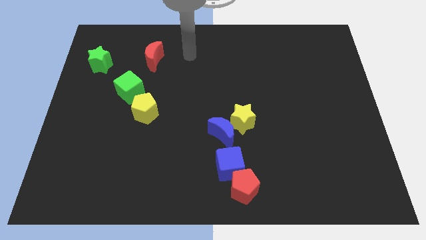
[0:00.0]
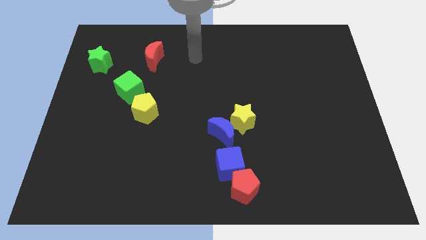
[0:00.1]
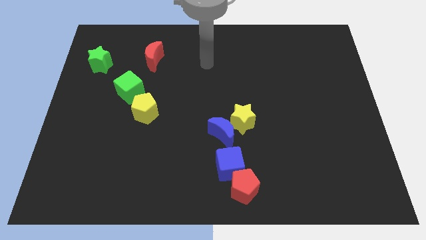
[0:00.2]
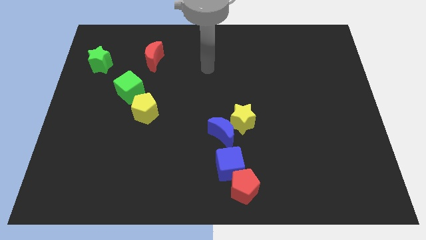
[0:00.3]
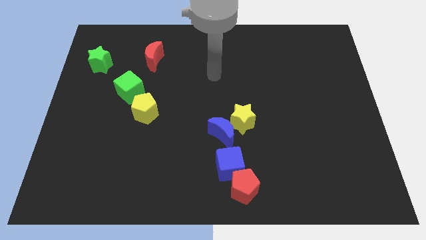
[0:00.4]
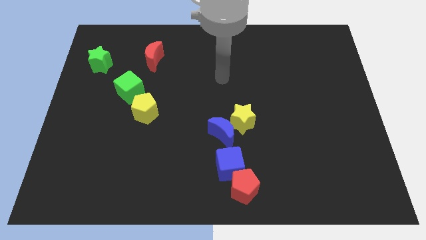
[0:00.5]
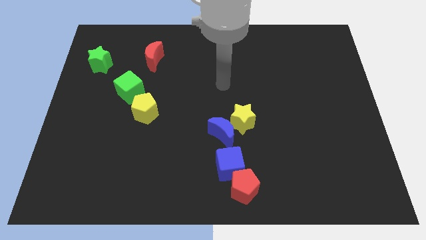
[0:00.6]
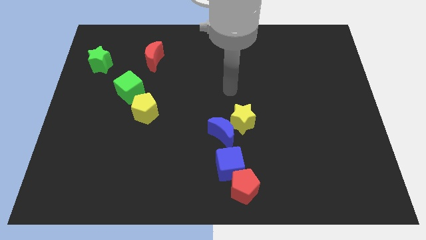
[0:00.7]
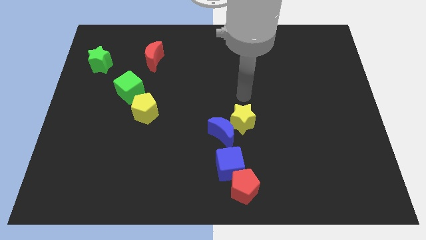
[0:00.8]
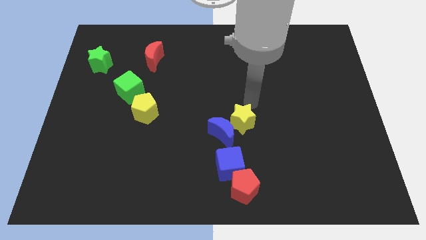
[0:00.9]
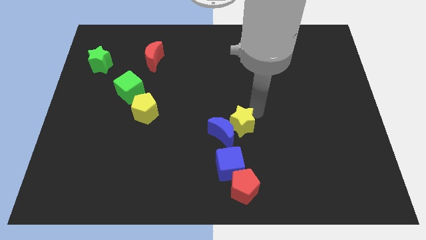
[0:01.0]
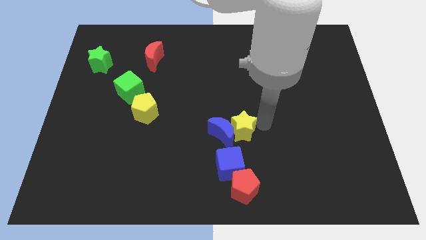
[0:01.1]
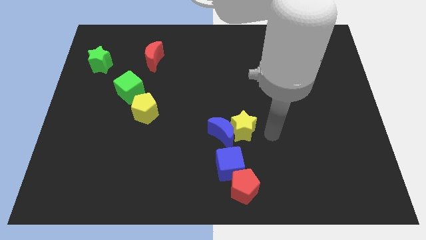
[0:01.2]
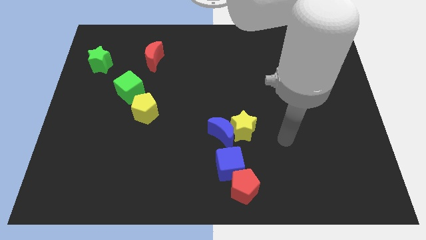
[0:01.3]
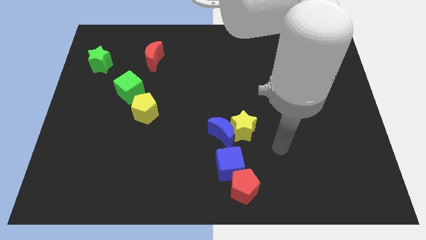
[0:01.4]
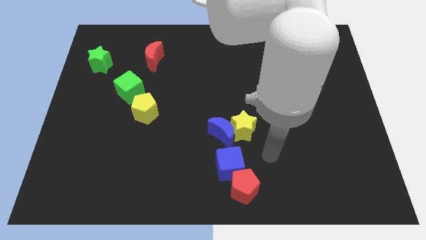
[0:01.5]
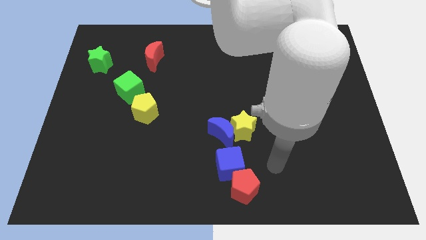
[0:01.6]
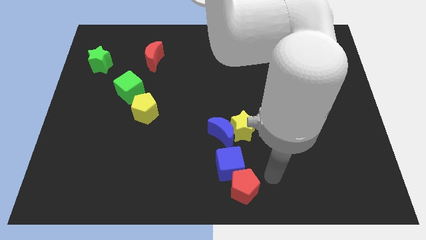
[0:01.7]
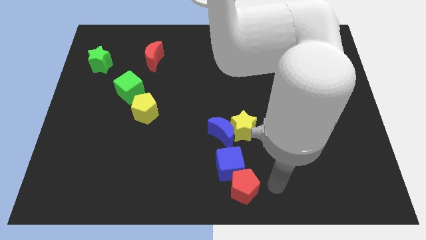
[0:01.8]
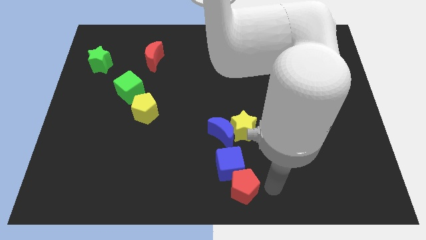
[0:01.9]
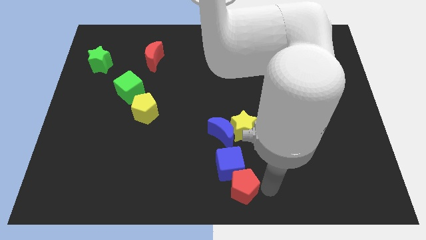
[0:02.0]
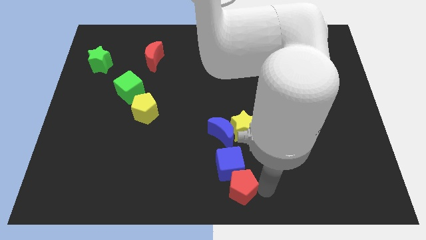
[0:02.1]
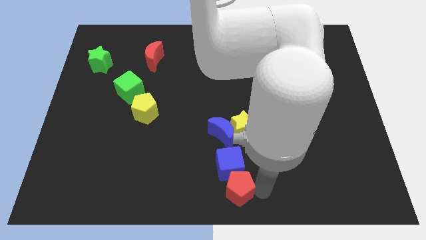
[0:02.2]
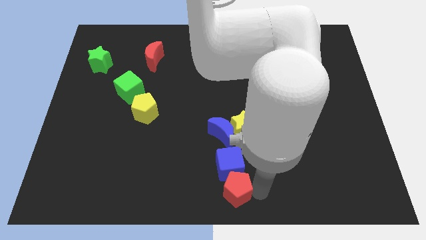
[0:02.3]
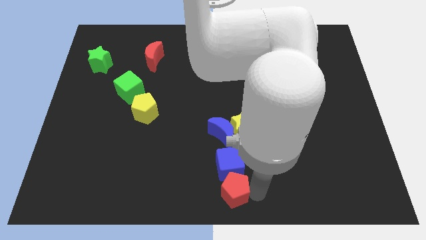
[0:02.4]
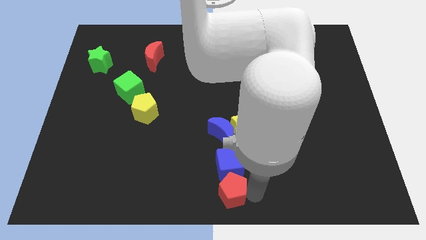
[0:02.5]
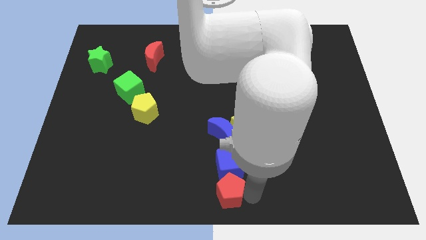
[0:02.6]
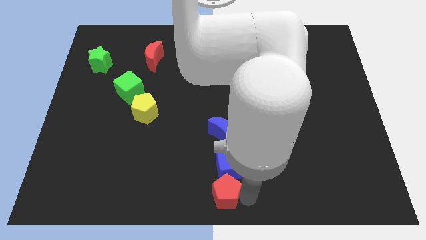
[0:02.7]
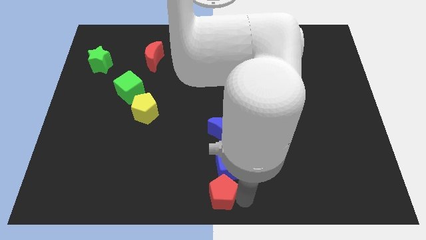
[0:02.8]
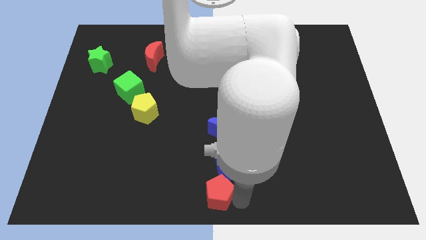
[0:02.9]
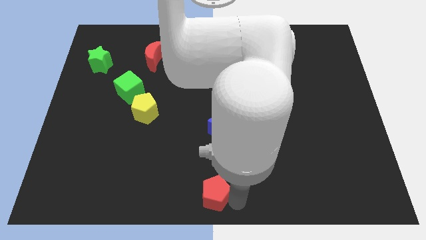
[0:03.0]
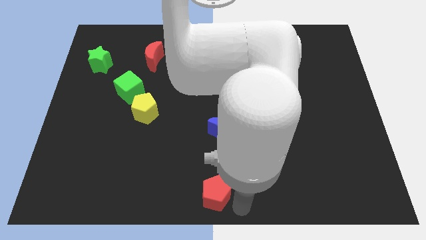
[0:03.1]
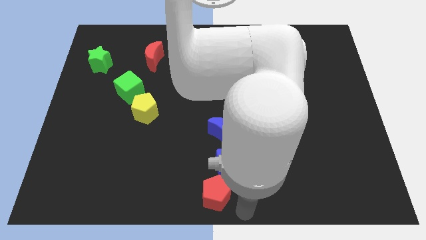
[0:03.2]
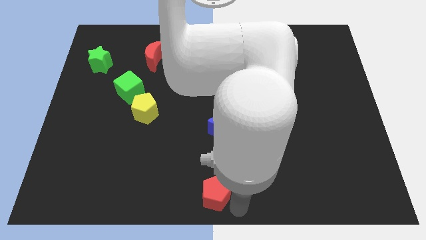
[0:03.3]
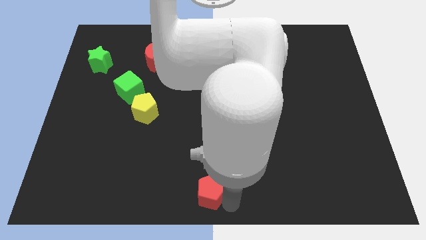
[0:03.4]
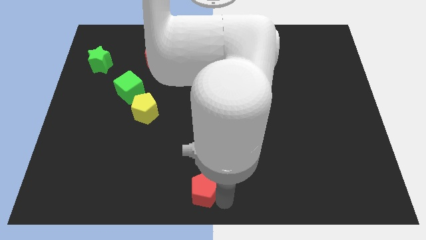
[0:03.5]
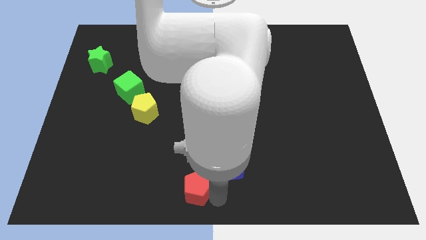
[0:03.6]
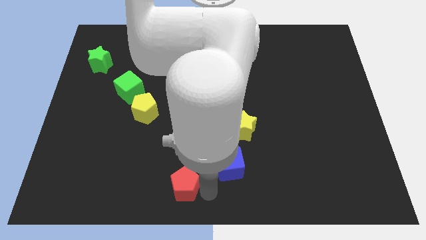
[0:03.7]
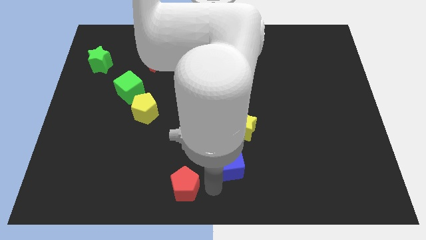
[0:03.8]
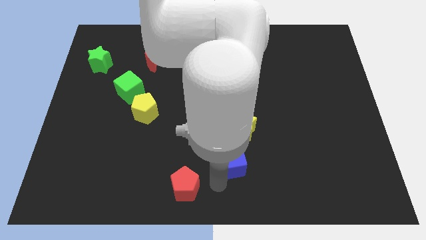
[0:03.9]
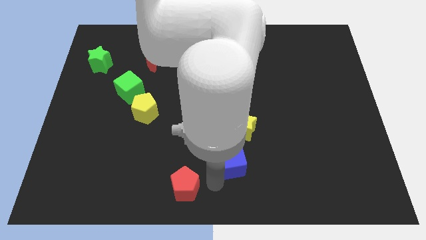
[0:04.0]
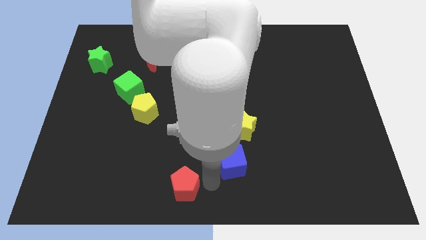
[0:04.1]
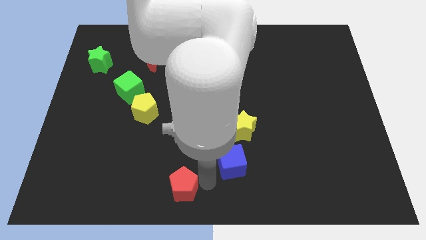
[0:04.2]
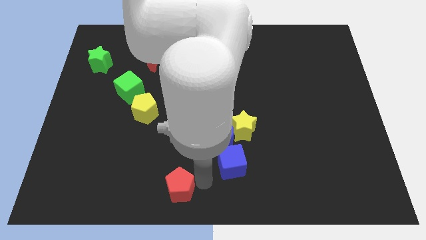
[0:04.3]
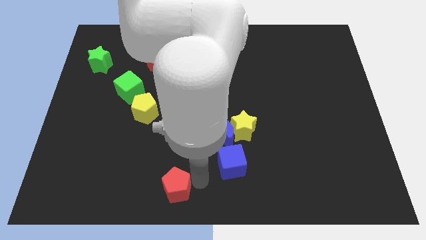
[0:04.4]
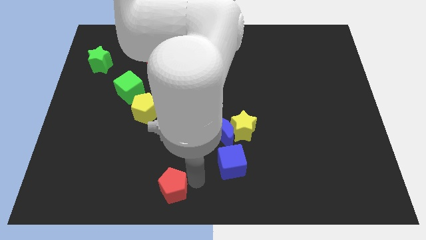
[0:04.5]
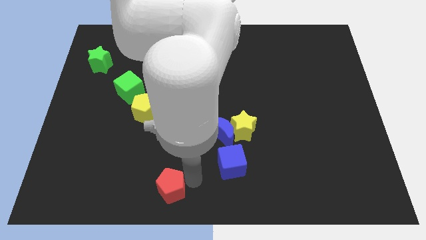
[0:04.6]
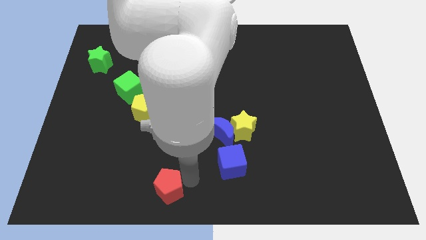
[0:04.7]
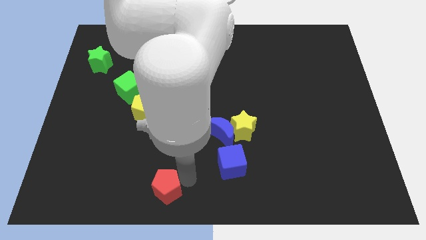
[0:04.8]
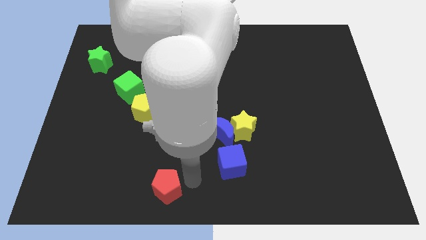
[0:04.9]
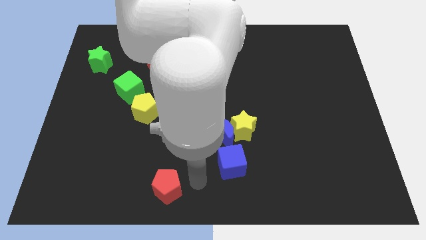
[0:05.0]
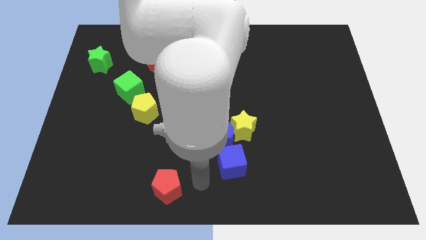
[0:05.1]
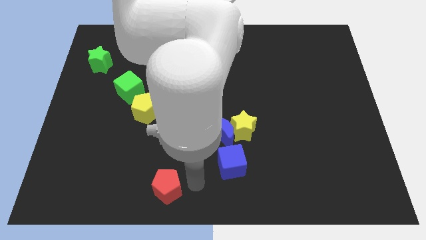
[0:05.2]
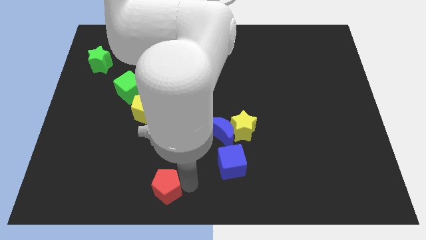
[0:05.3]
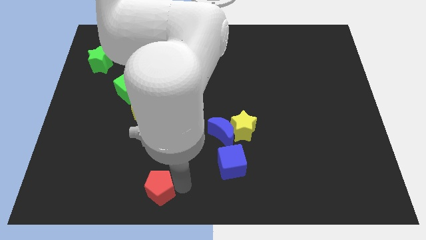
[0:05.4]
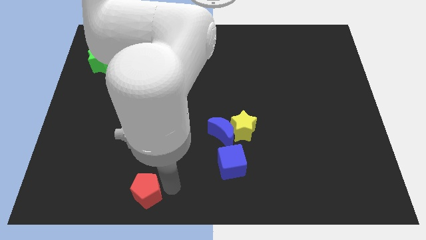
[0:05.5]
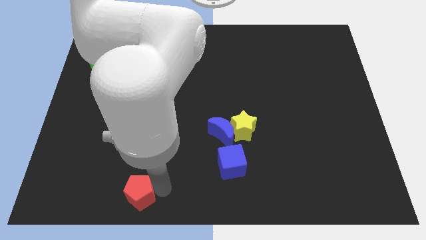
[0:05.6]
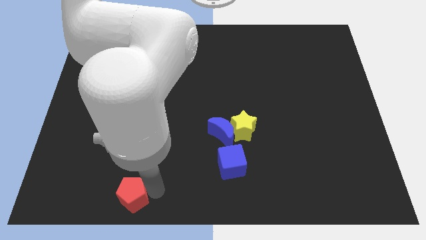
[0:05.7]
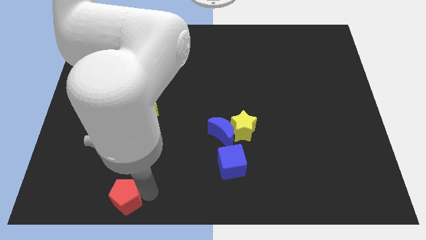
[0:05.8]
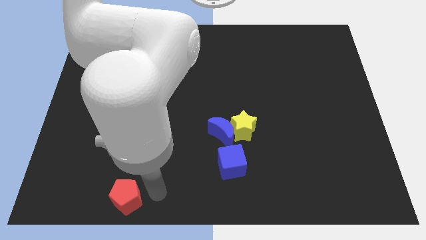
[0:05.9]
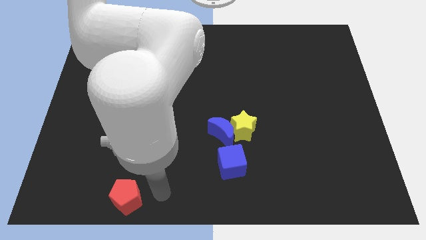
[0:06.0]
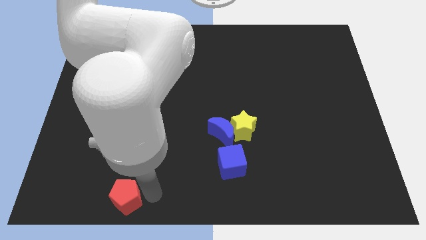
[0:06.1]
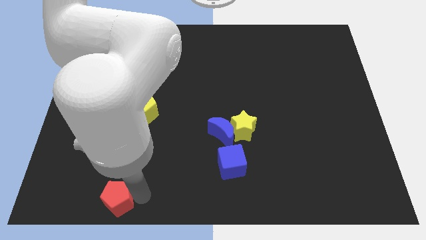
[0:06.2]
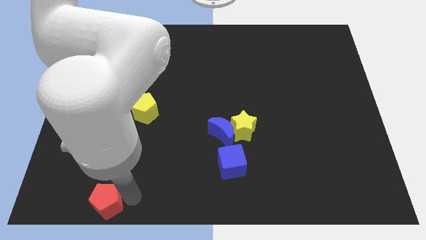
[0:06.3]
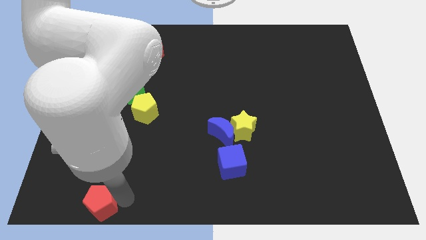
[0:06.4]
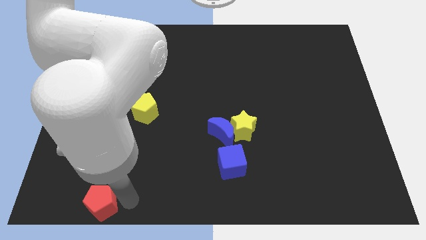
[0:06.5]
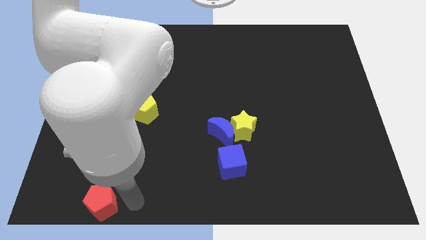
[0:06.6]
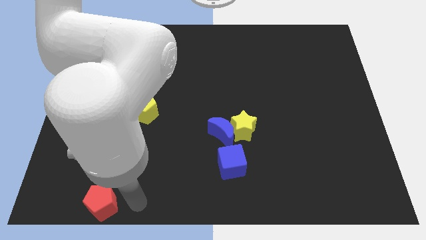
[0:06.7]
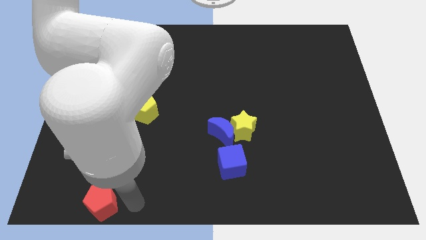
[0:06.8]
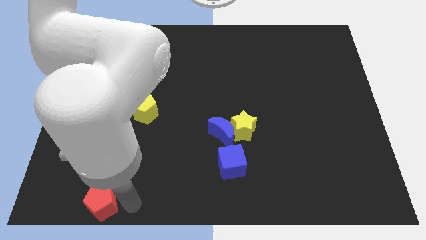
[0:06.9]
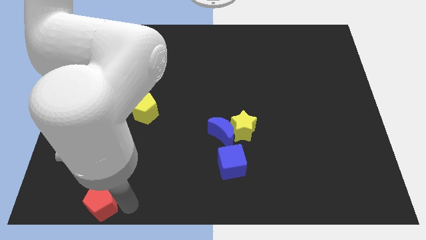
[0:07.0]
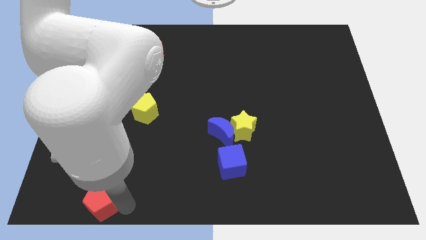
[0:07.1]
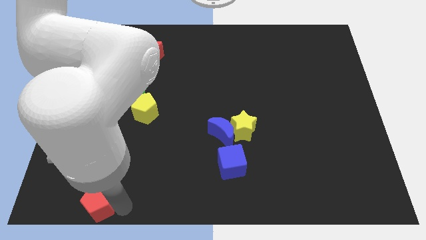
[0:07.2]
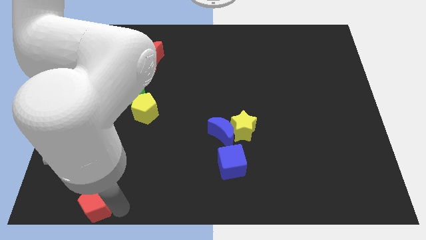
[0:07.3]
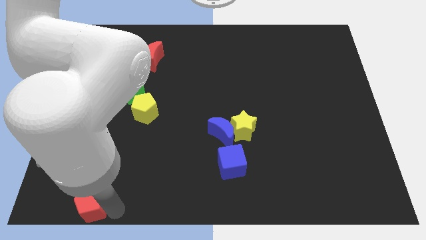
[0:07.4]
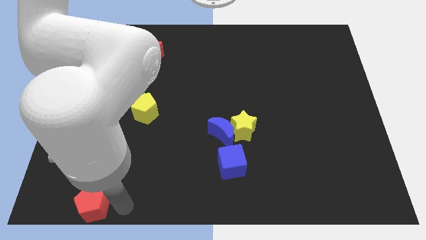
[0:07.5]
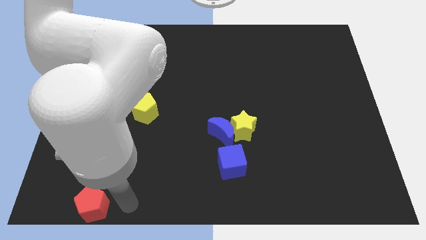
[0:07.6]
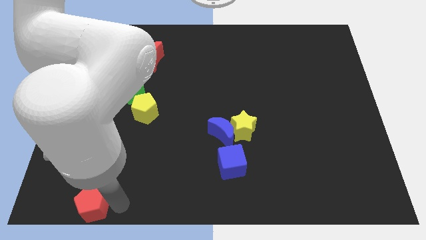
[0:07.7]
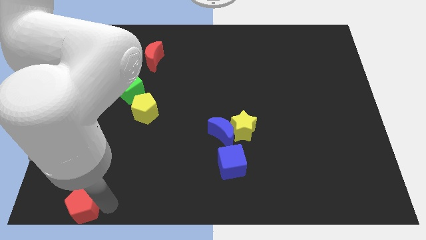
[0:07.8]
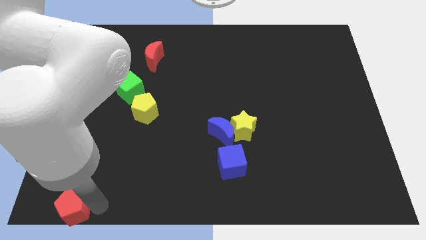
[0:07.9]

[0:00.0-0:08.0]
move the red pentagon to the bottom left of the board
